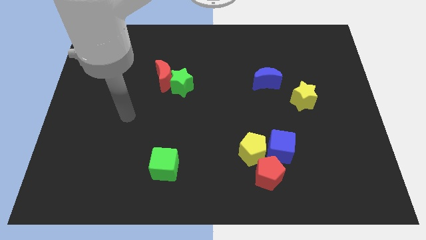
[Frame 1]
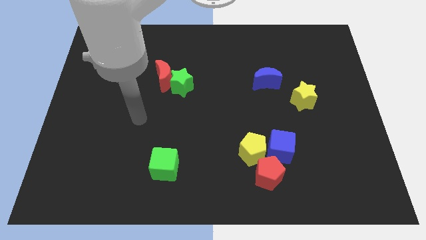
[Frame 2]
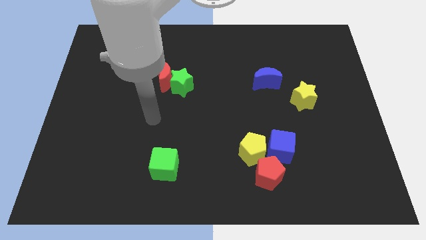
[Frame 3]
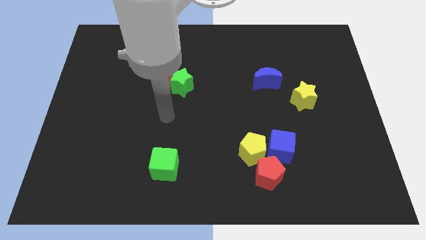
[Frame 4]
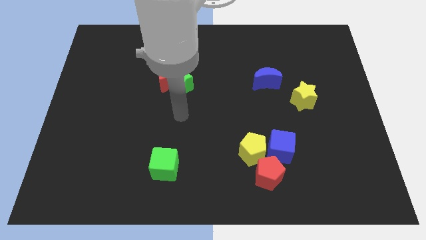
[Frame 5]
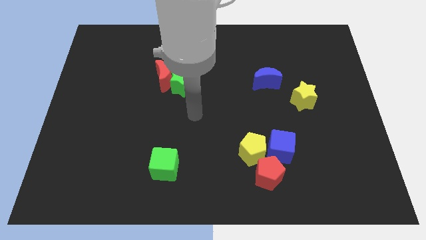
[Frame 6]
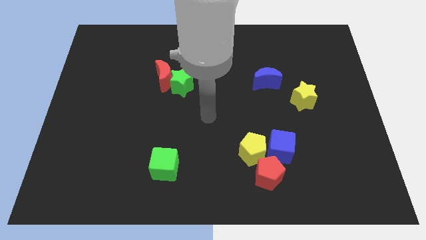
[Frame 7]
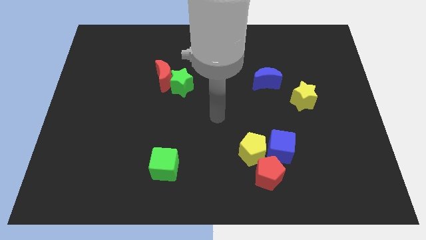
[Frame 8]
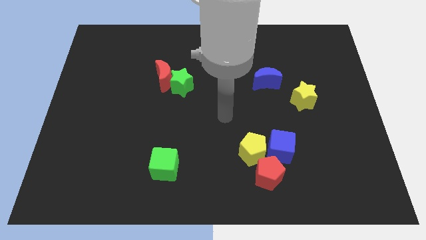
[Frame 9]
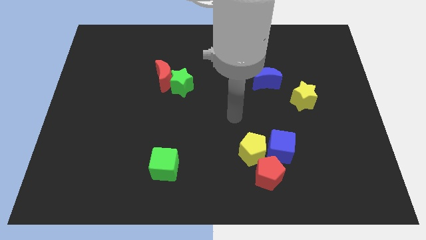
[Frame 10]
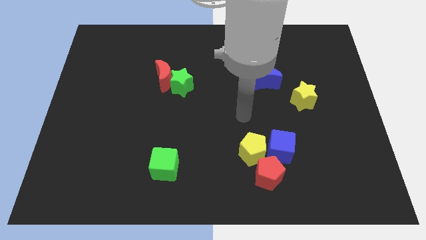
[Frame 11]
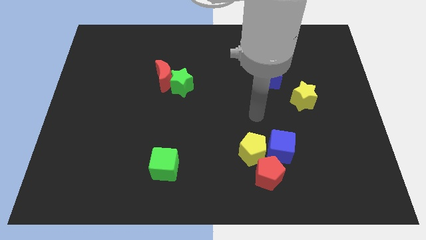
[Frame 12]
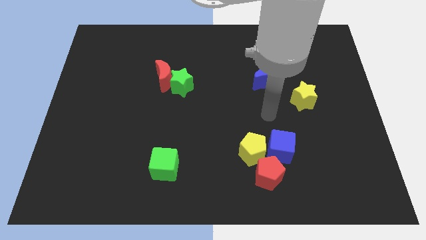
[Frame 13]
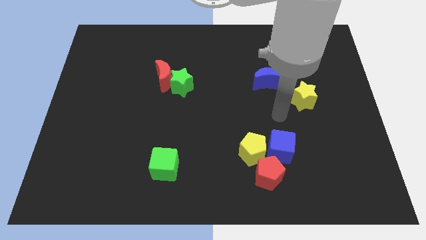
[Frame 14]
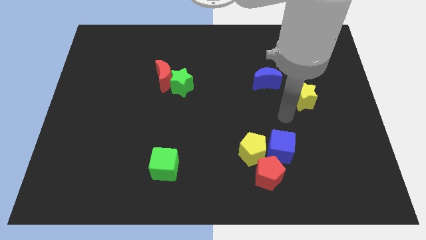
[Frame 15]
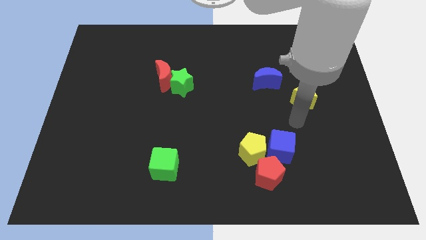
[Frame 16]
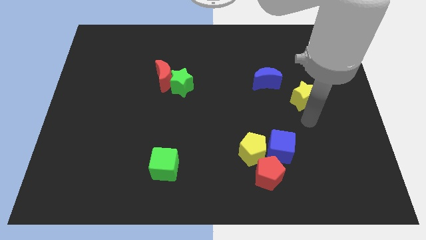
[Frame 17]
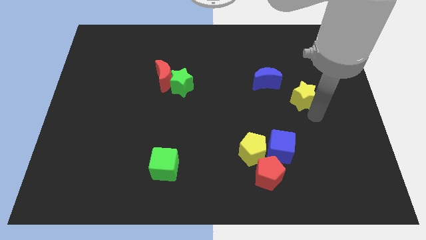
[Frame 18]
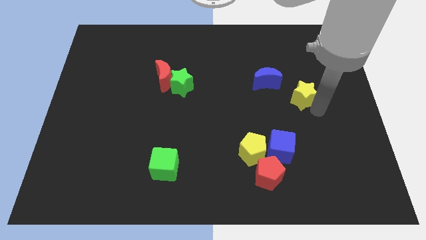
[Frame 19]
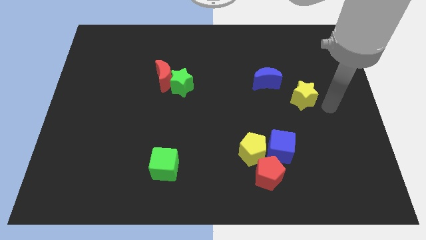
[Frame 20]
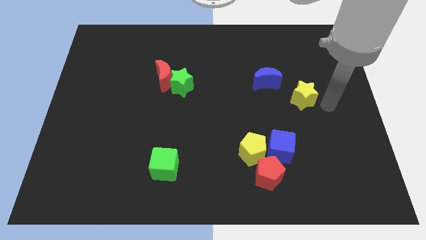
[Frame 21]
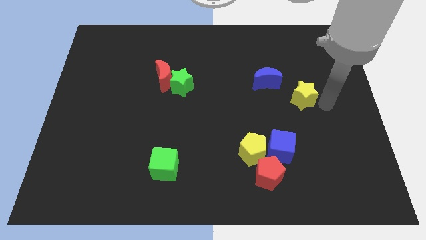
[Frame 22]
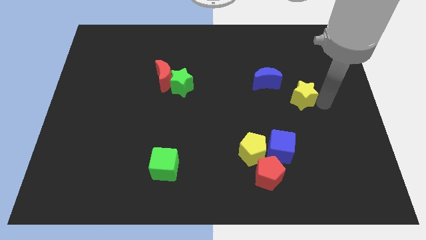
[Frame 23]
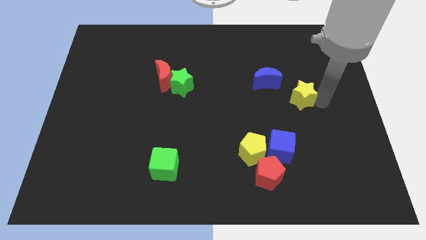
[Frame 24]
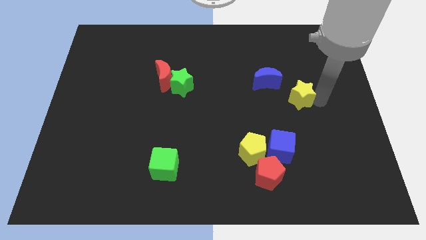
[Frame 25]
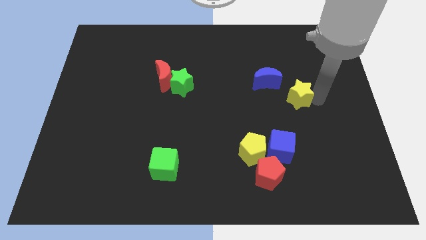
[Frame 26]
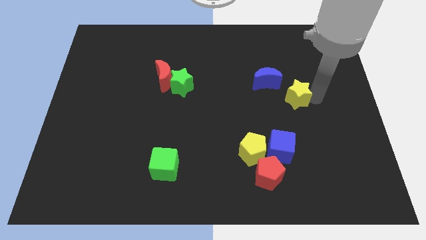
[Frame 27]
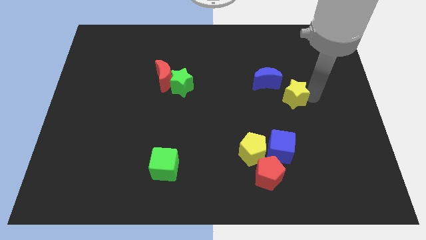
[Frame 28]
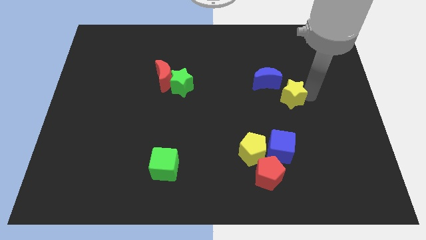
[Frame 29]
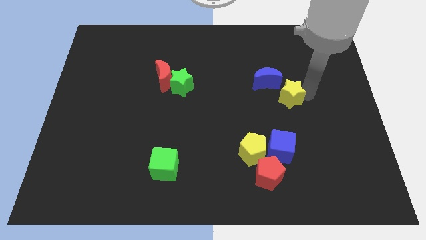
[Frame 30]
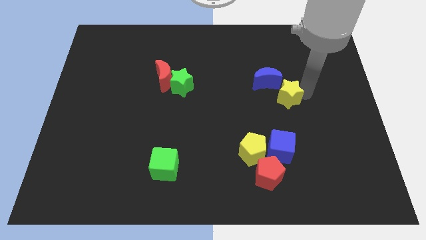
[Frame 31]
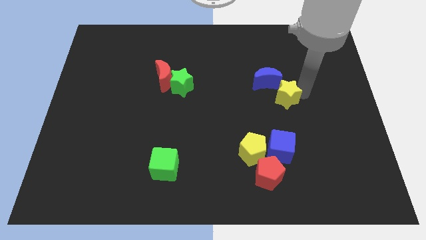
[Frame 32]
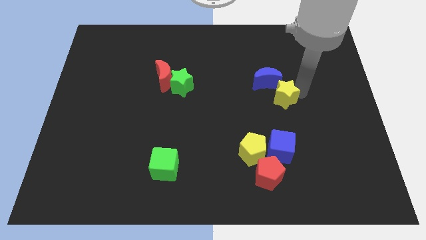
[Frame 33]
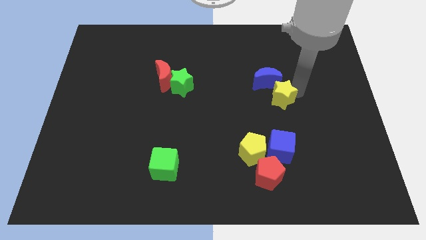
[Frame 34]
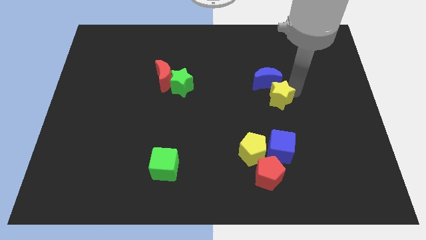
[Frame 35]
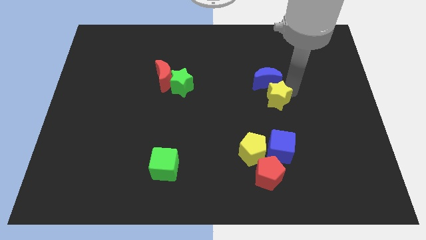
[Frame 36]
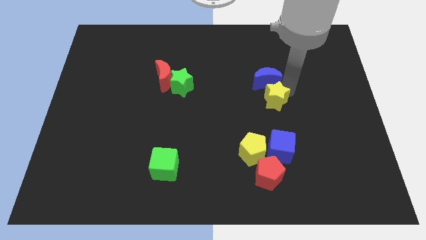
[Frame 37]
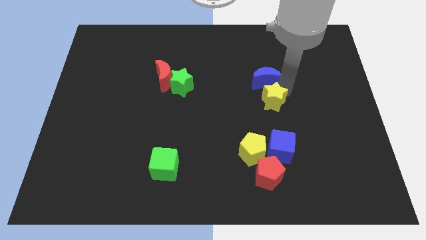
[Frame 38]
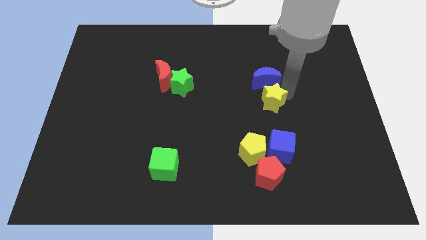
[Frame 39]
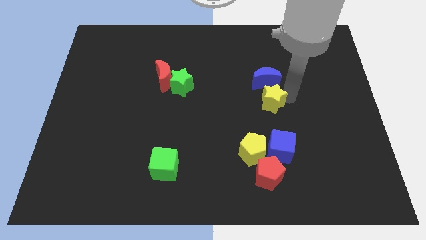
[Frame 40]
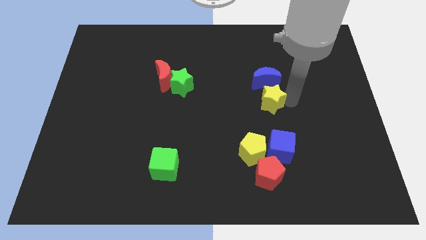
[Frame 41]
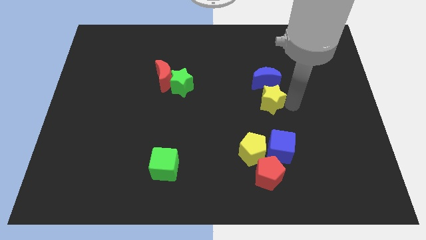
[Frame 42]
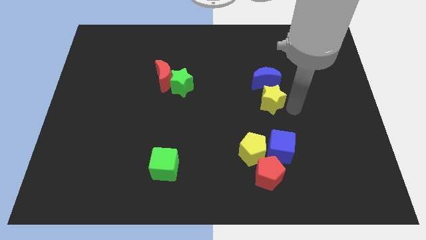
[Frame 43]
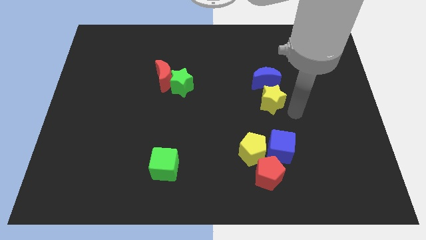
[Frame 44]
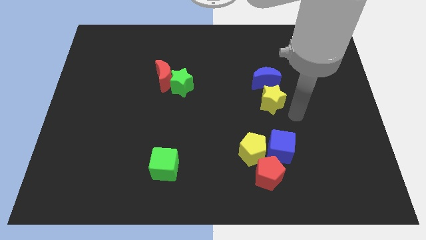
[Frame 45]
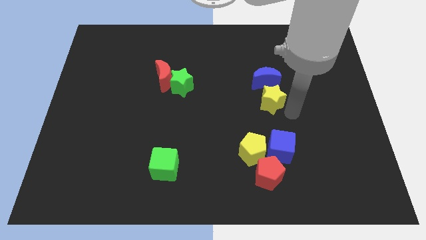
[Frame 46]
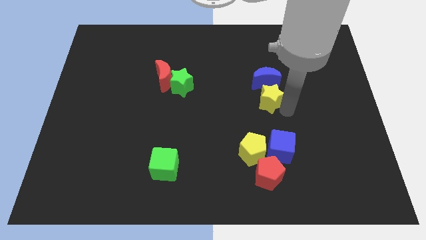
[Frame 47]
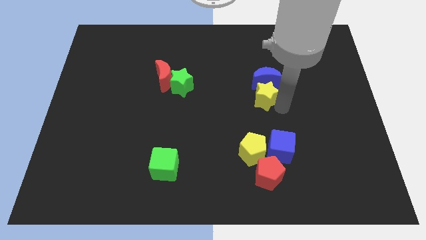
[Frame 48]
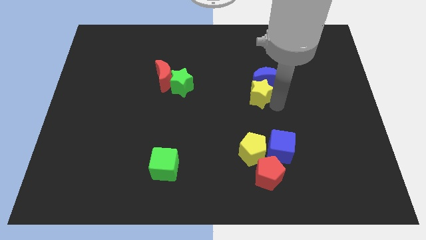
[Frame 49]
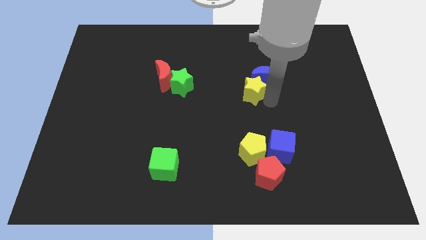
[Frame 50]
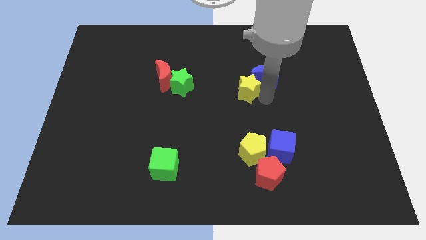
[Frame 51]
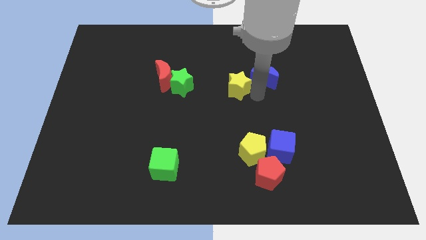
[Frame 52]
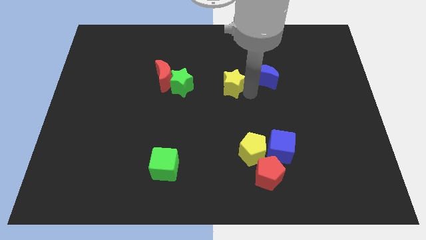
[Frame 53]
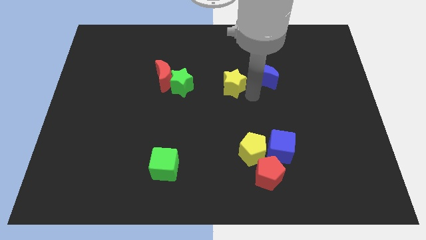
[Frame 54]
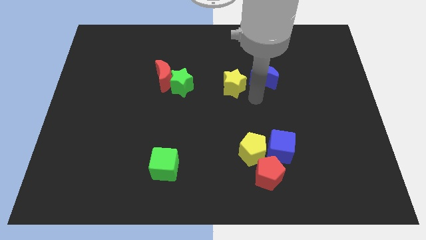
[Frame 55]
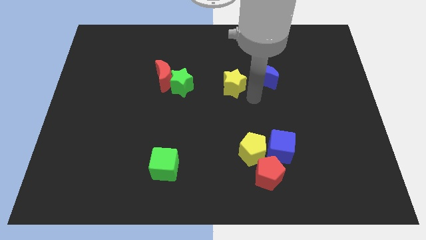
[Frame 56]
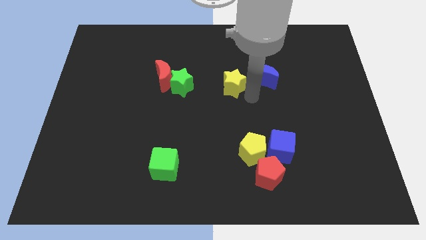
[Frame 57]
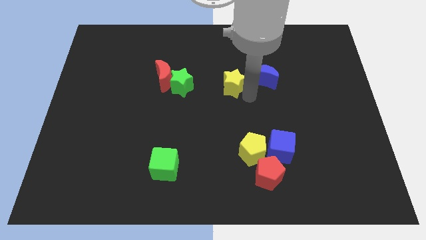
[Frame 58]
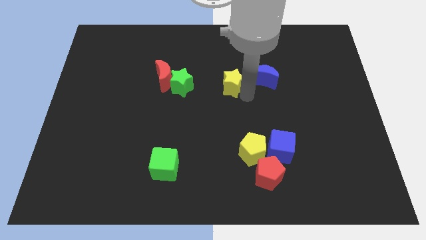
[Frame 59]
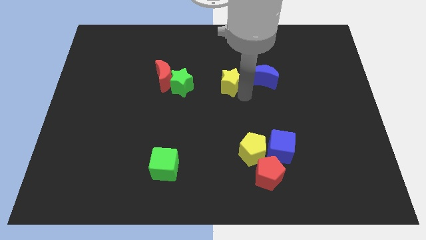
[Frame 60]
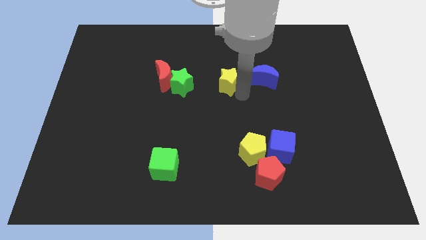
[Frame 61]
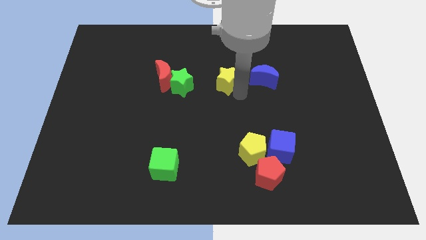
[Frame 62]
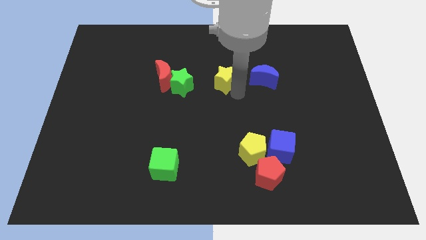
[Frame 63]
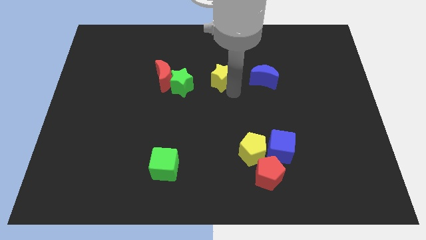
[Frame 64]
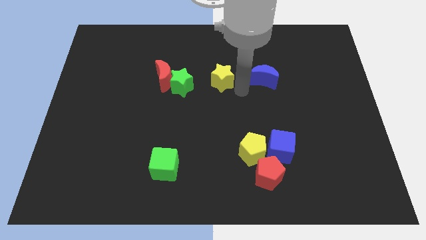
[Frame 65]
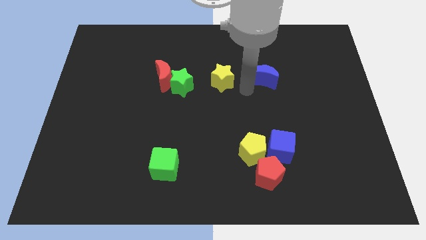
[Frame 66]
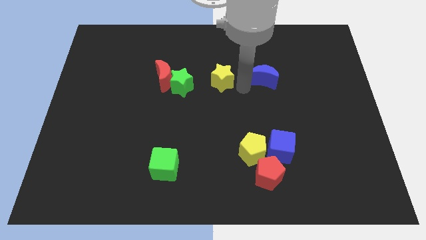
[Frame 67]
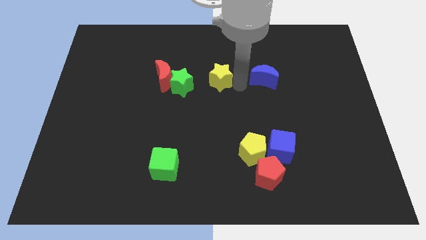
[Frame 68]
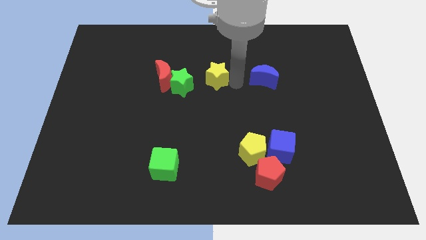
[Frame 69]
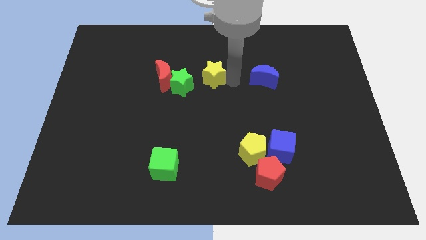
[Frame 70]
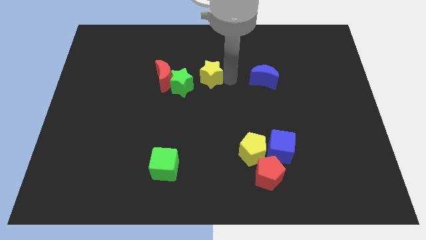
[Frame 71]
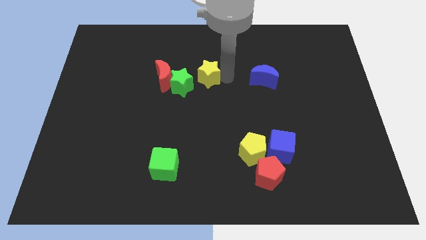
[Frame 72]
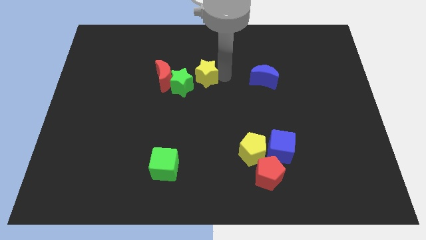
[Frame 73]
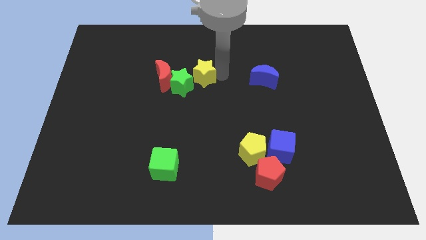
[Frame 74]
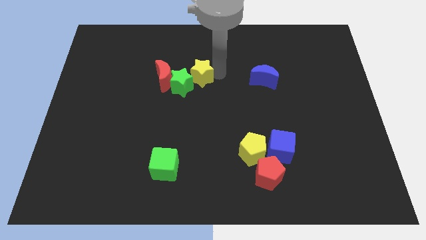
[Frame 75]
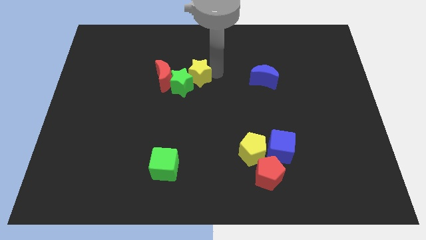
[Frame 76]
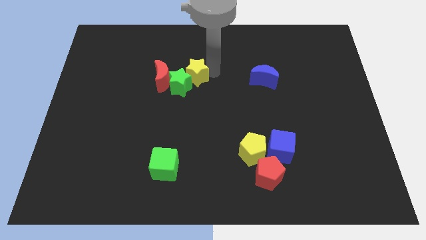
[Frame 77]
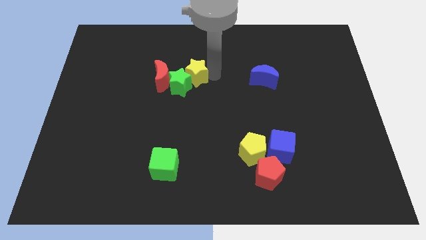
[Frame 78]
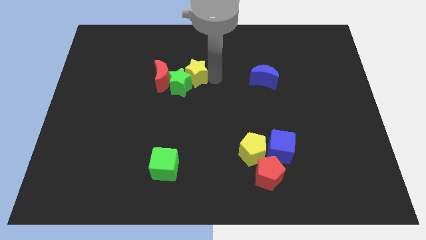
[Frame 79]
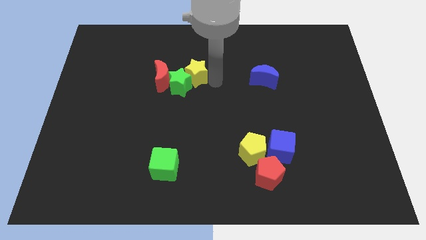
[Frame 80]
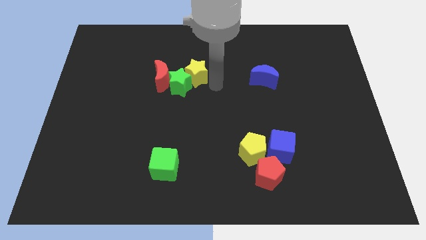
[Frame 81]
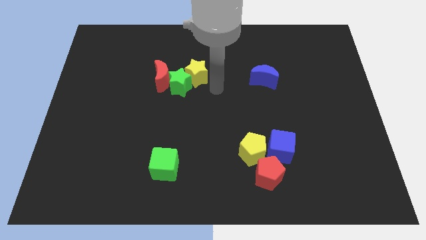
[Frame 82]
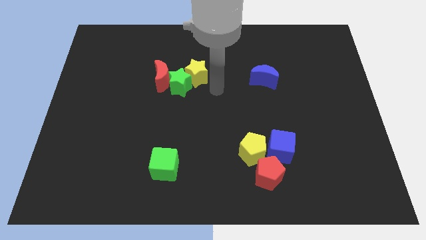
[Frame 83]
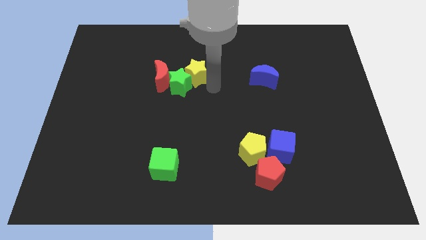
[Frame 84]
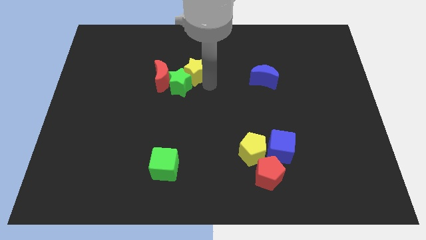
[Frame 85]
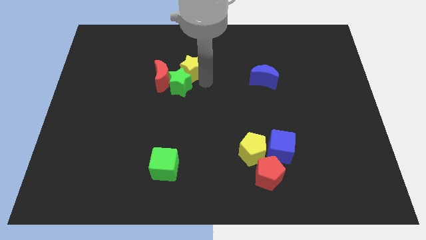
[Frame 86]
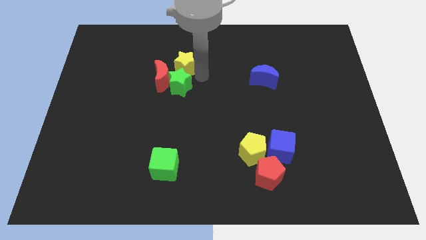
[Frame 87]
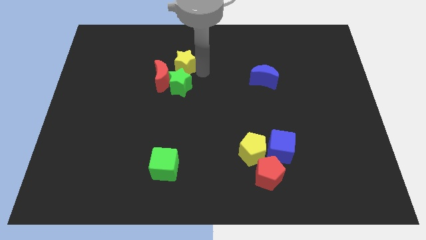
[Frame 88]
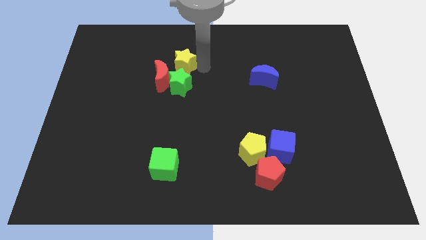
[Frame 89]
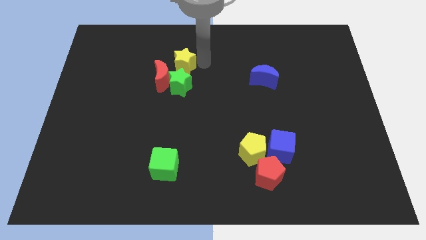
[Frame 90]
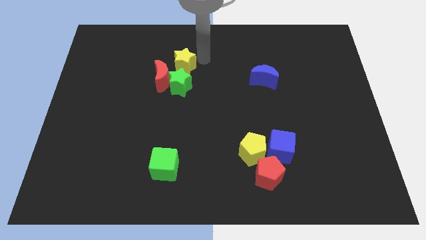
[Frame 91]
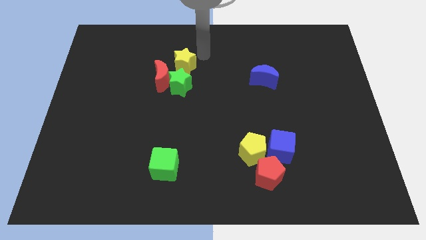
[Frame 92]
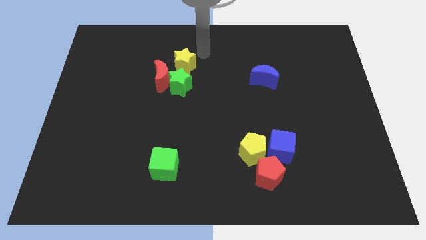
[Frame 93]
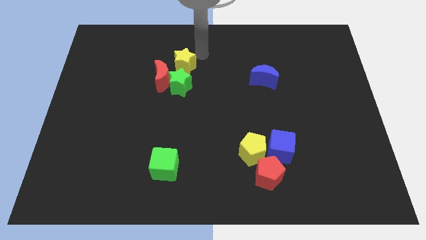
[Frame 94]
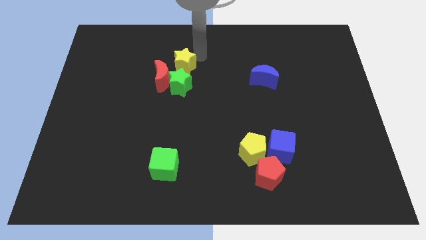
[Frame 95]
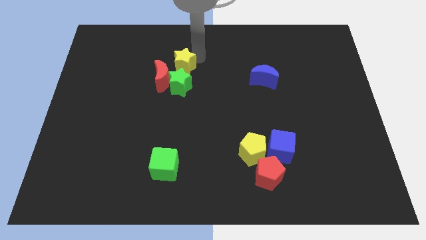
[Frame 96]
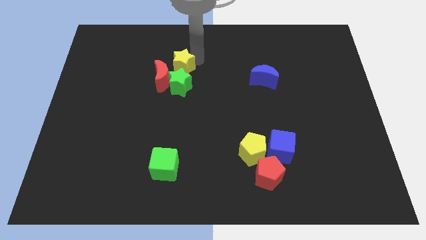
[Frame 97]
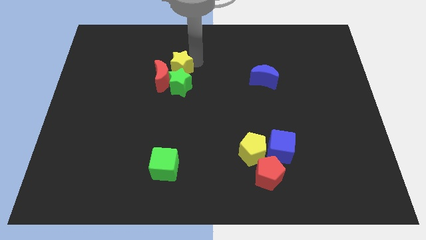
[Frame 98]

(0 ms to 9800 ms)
slide the yellow star to the red moon
